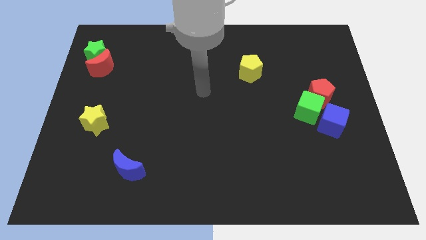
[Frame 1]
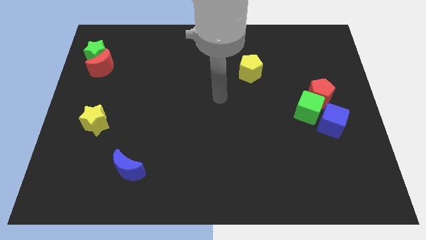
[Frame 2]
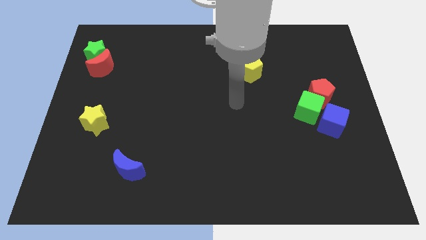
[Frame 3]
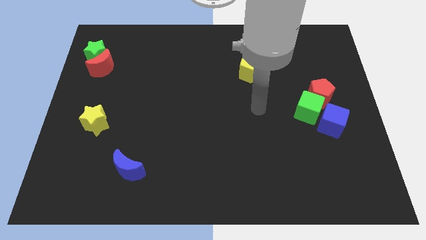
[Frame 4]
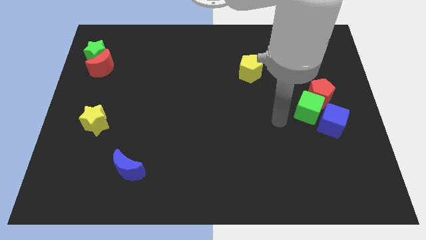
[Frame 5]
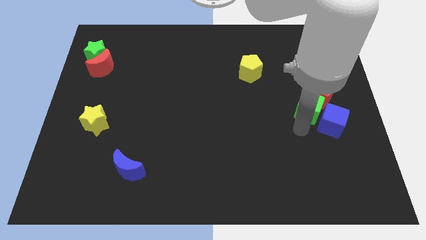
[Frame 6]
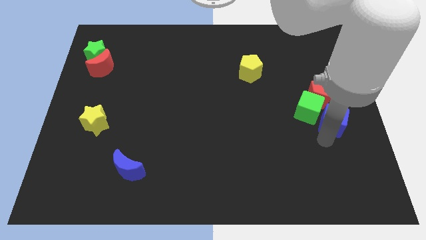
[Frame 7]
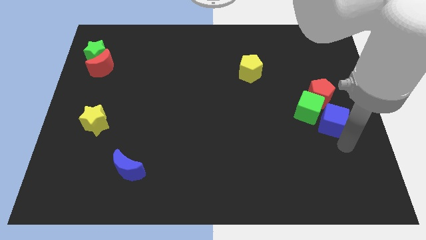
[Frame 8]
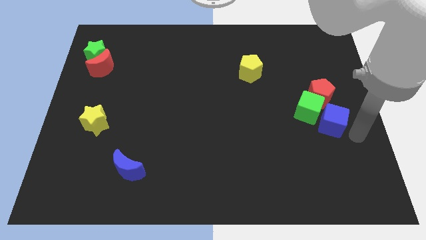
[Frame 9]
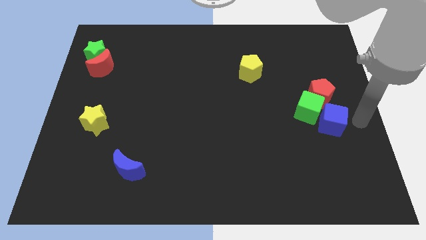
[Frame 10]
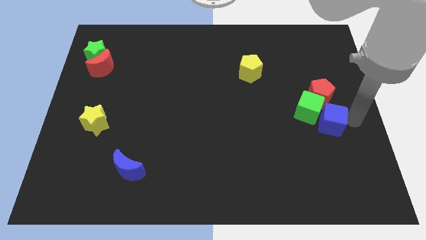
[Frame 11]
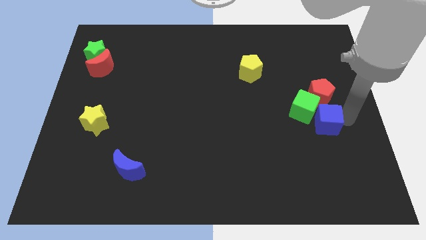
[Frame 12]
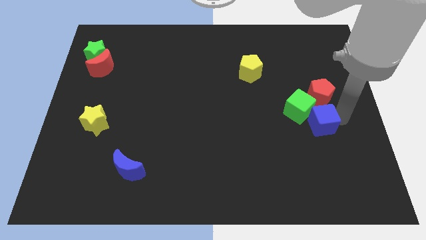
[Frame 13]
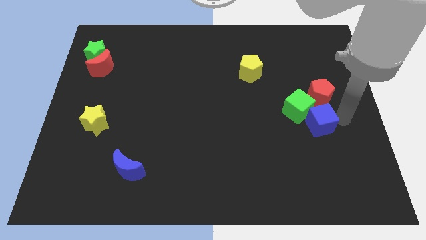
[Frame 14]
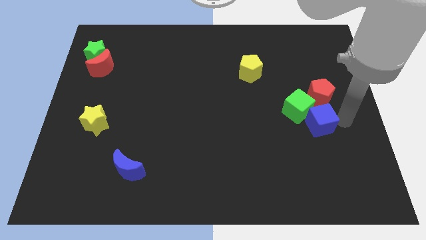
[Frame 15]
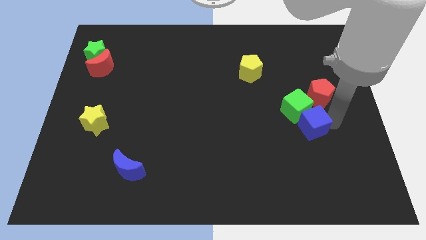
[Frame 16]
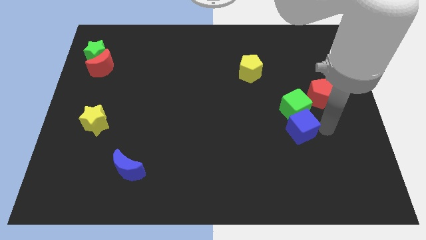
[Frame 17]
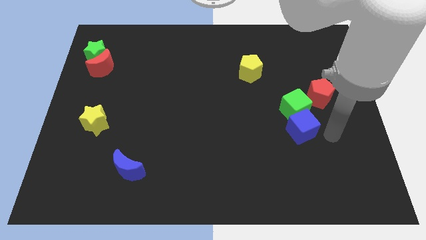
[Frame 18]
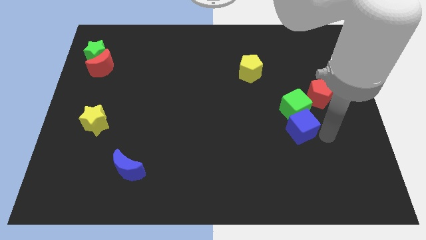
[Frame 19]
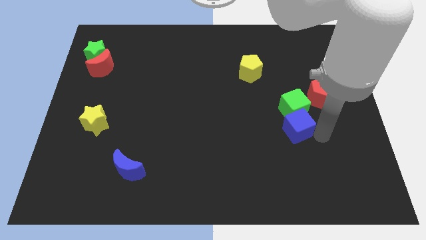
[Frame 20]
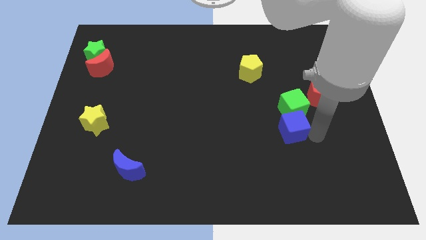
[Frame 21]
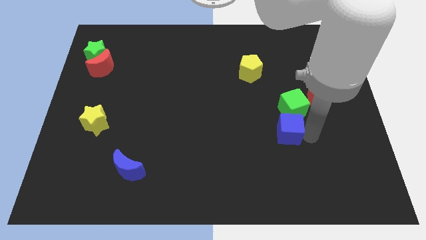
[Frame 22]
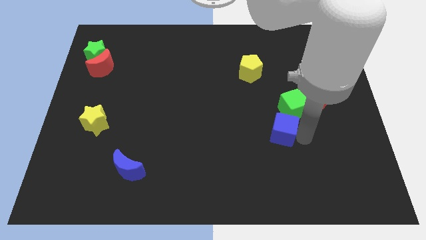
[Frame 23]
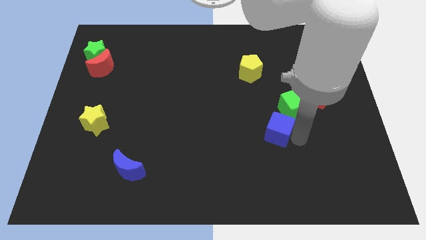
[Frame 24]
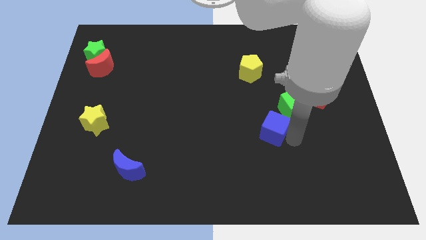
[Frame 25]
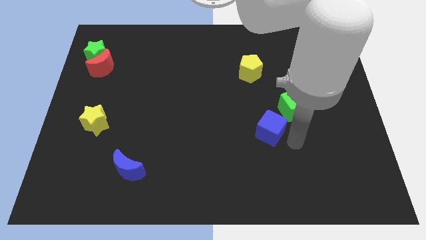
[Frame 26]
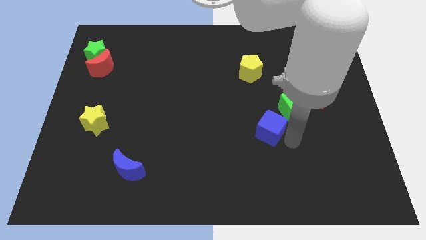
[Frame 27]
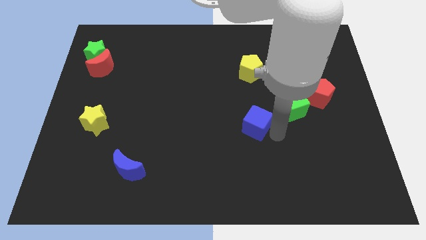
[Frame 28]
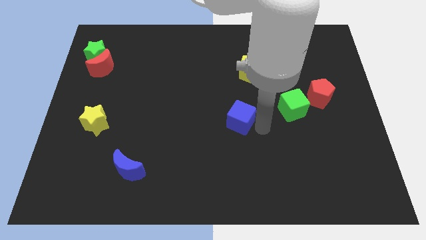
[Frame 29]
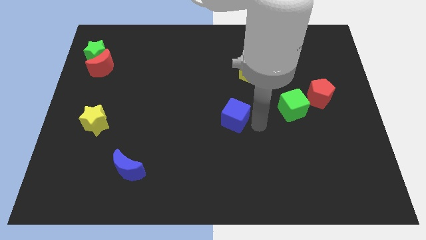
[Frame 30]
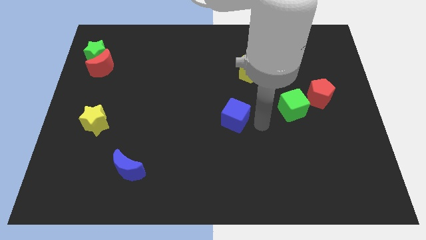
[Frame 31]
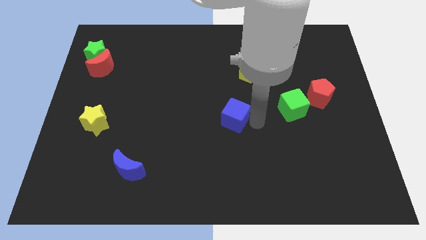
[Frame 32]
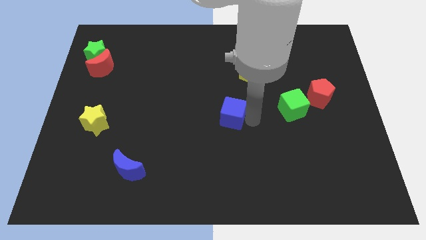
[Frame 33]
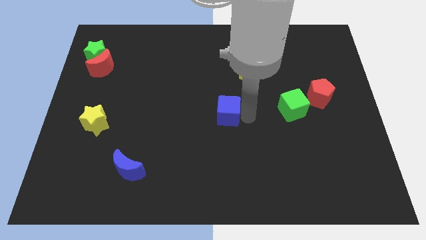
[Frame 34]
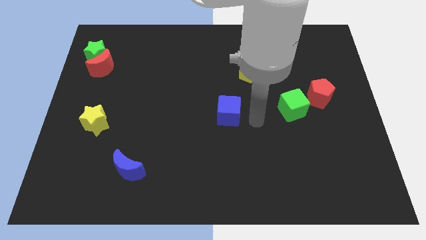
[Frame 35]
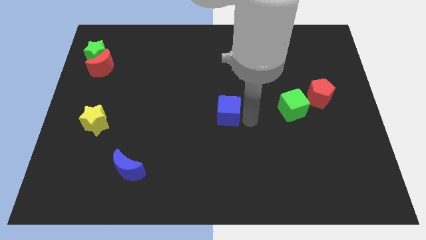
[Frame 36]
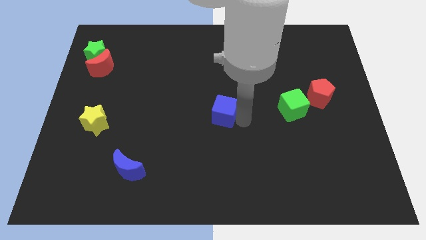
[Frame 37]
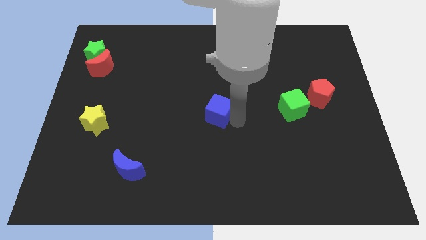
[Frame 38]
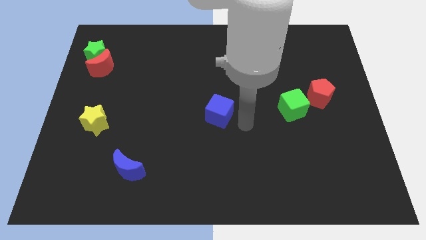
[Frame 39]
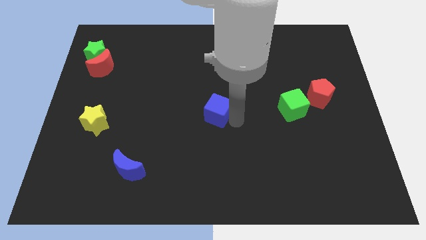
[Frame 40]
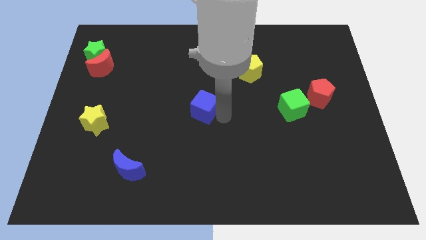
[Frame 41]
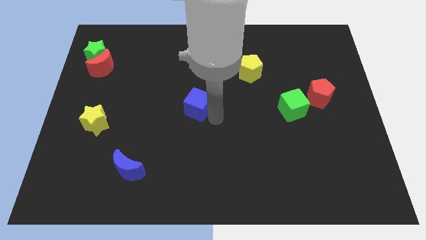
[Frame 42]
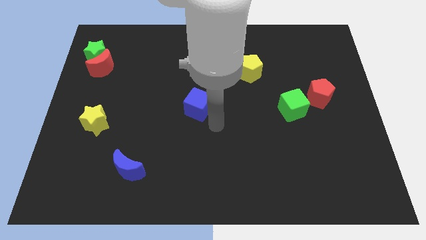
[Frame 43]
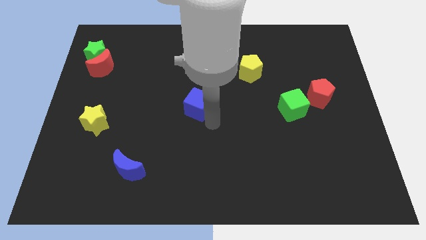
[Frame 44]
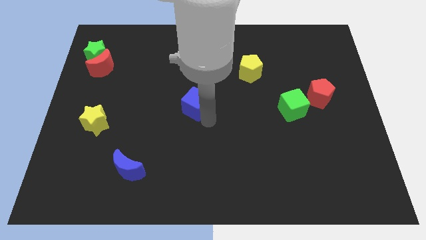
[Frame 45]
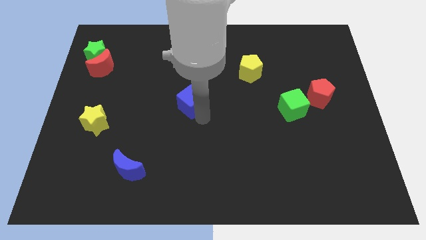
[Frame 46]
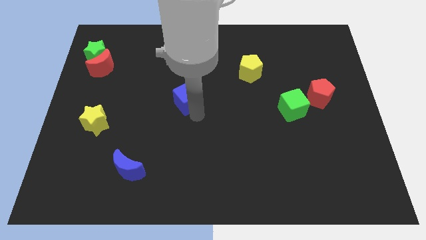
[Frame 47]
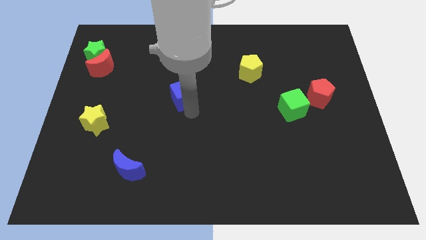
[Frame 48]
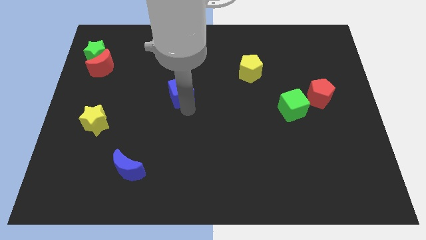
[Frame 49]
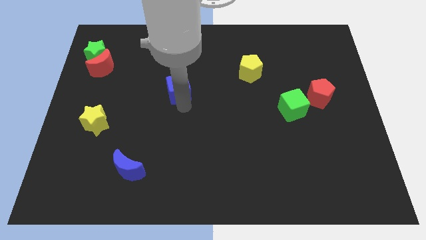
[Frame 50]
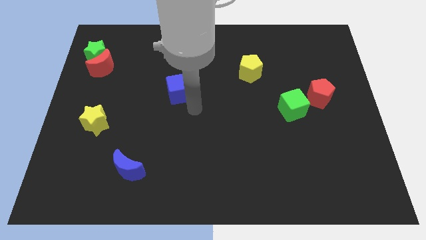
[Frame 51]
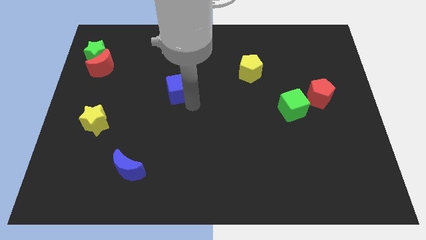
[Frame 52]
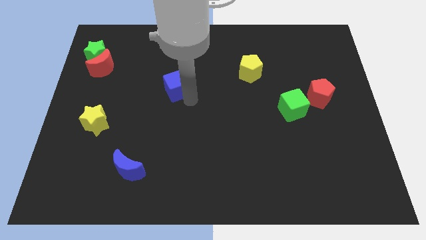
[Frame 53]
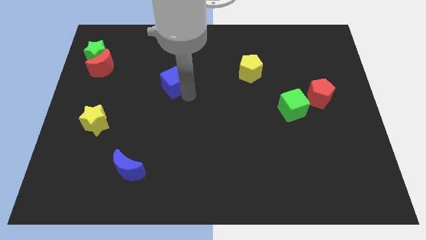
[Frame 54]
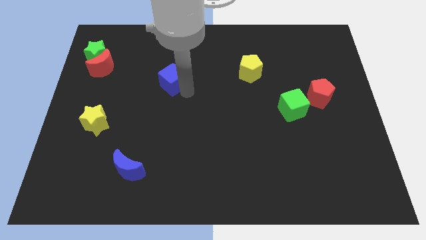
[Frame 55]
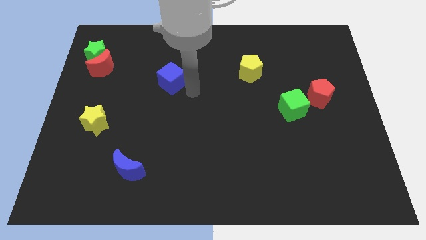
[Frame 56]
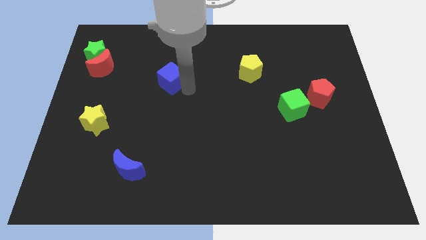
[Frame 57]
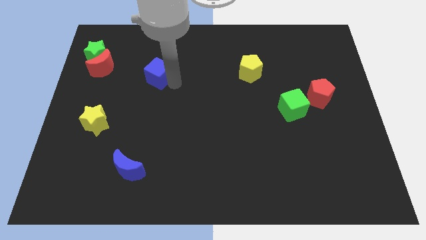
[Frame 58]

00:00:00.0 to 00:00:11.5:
slide the blue cube right of the red moon

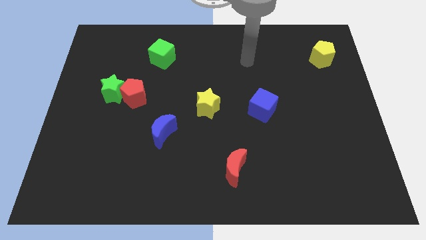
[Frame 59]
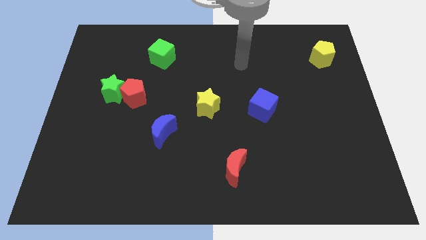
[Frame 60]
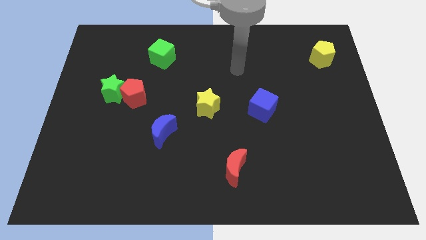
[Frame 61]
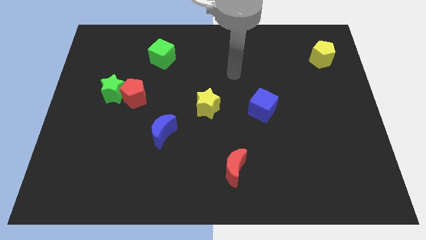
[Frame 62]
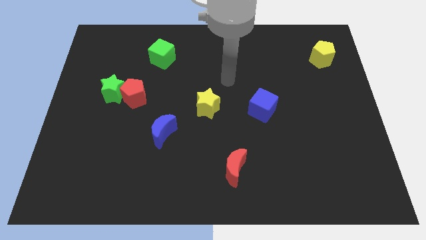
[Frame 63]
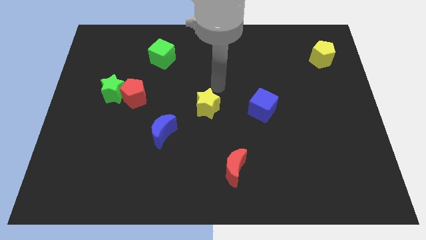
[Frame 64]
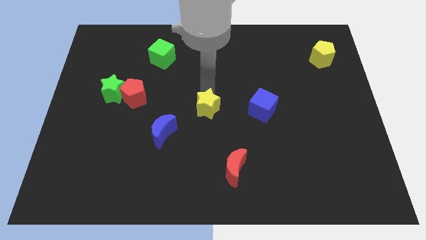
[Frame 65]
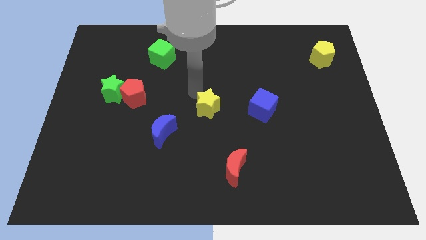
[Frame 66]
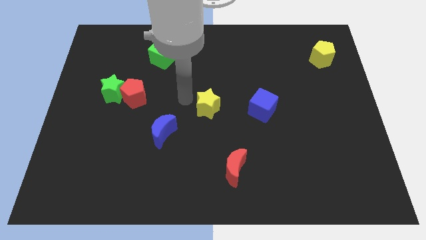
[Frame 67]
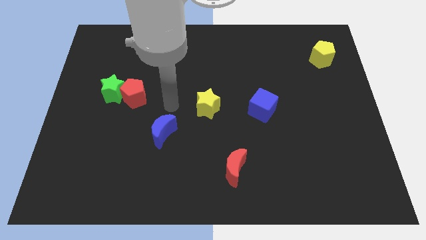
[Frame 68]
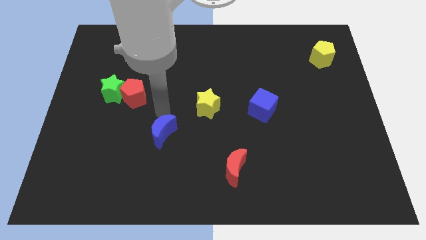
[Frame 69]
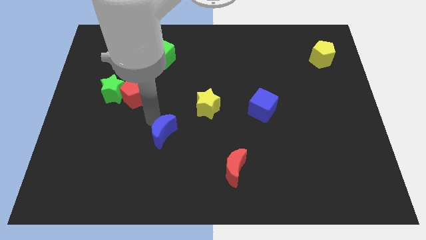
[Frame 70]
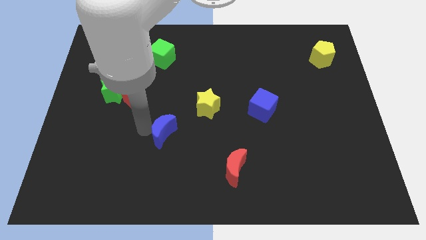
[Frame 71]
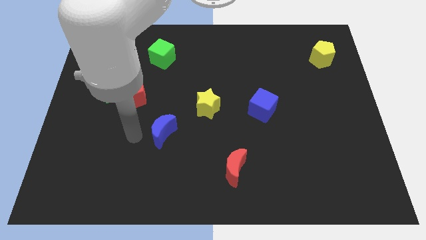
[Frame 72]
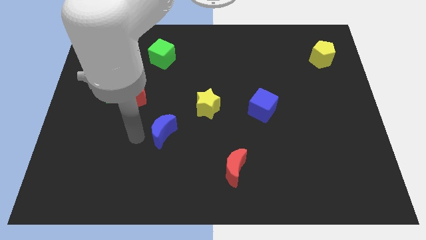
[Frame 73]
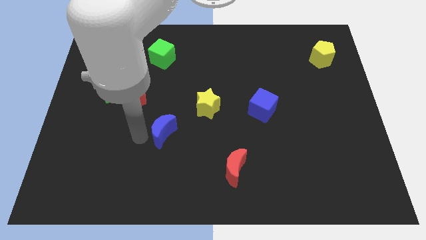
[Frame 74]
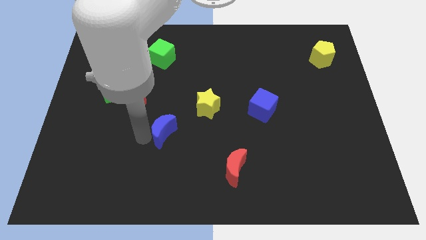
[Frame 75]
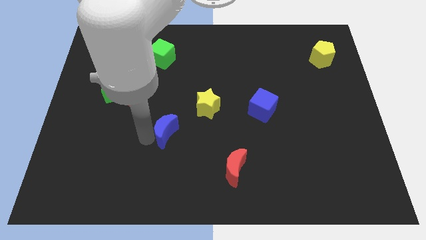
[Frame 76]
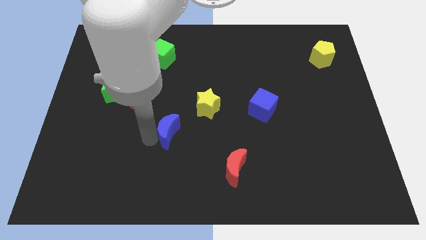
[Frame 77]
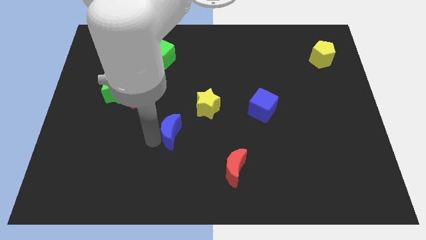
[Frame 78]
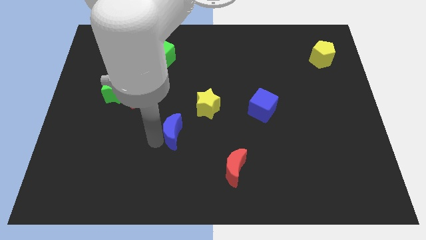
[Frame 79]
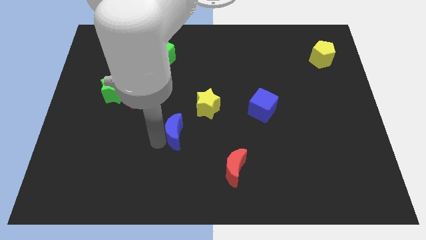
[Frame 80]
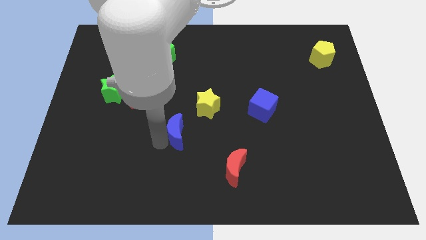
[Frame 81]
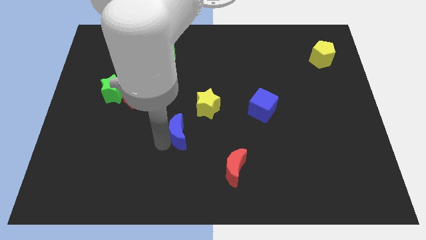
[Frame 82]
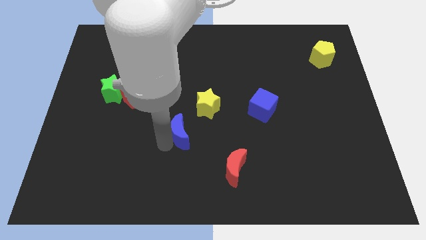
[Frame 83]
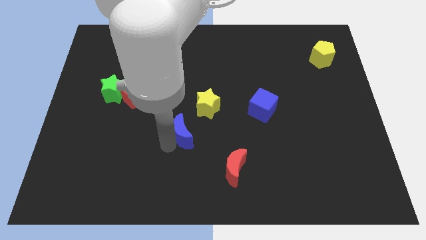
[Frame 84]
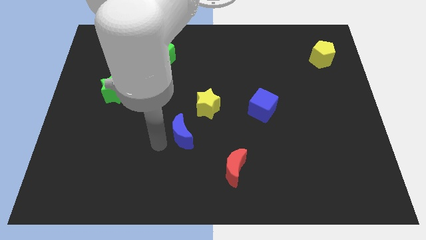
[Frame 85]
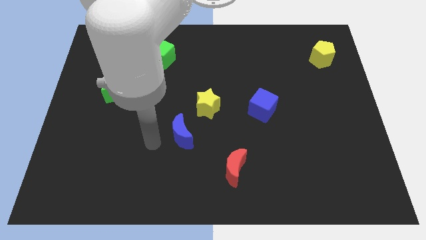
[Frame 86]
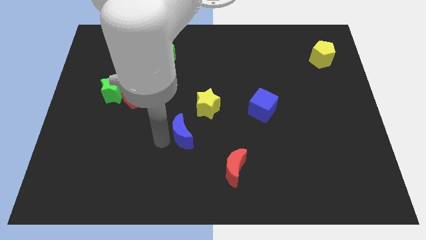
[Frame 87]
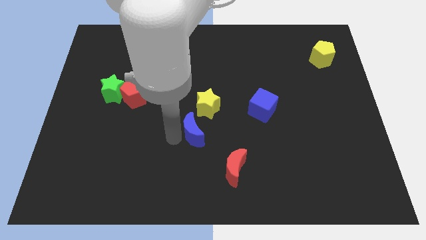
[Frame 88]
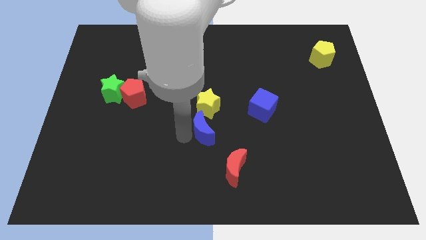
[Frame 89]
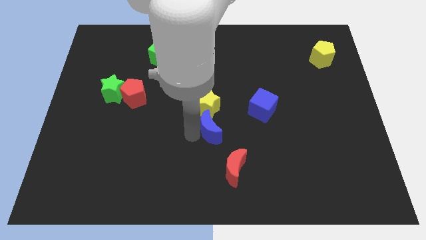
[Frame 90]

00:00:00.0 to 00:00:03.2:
put the blue moon diagonally down and to the right of the yellow star
